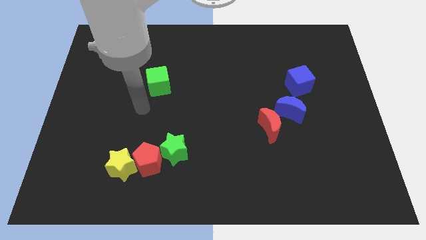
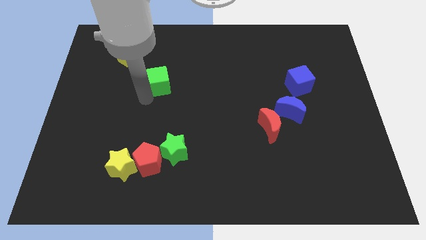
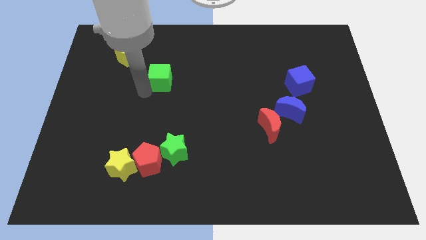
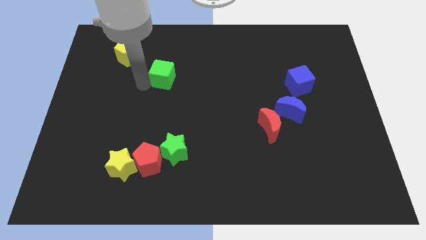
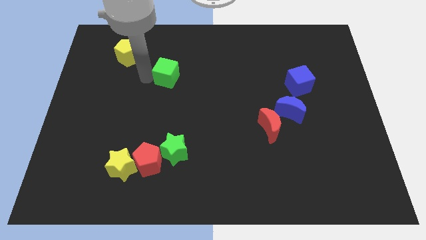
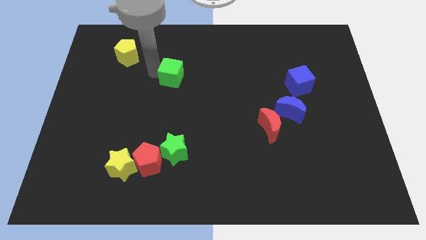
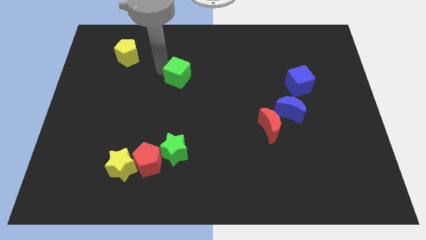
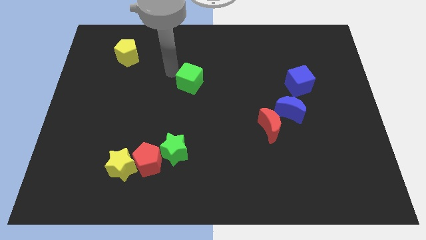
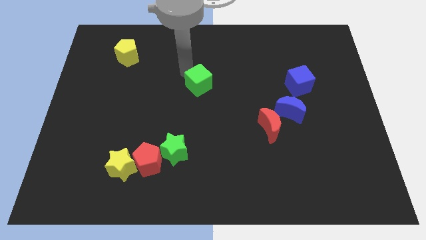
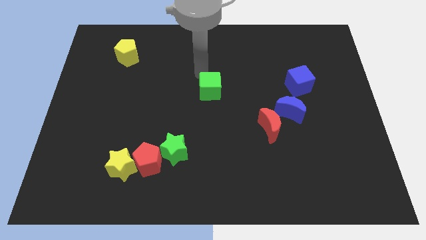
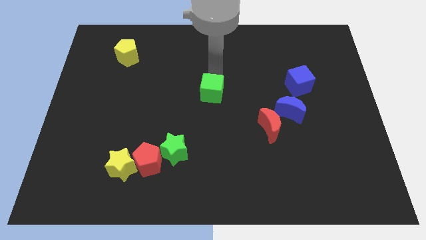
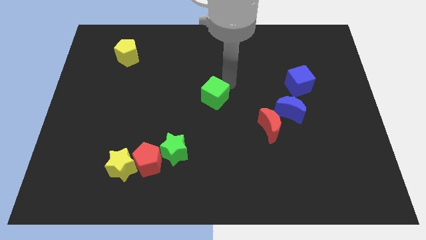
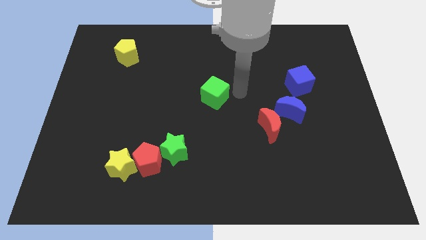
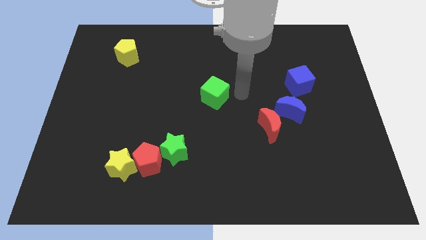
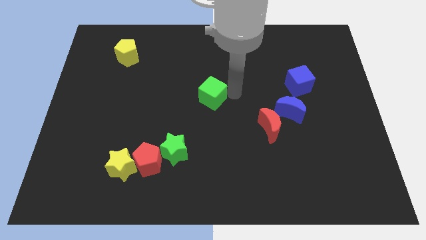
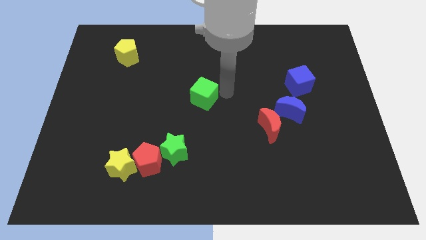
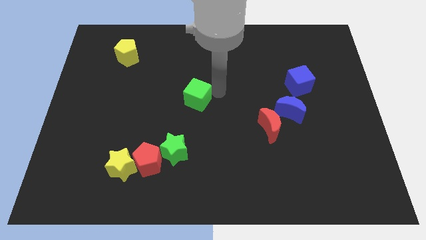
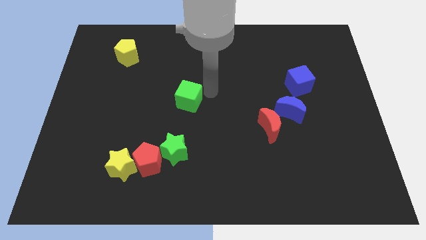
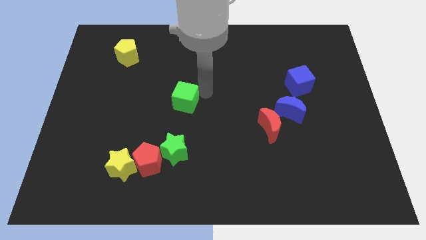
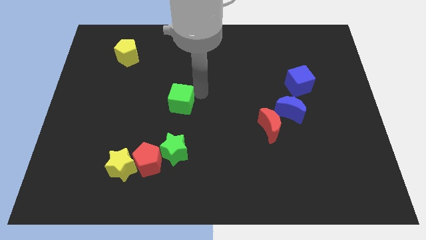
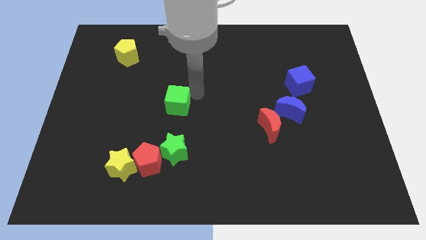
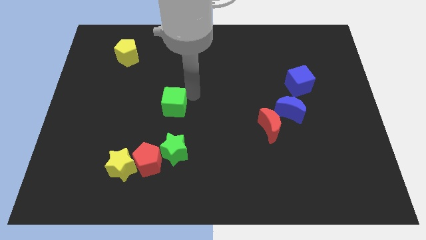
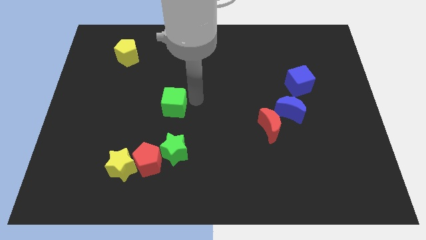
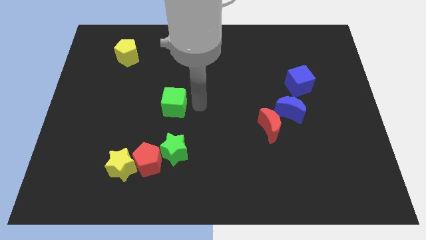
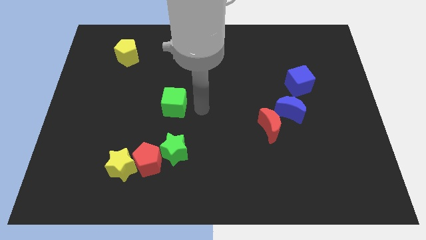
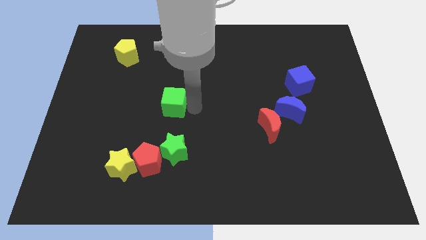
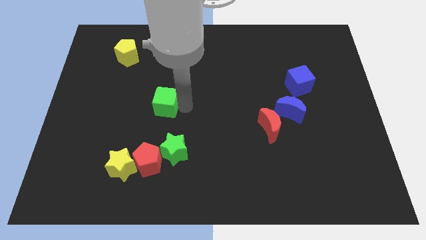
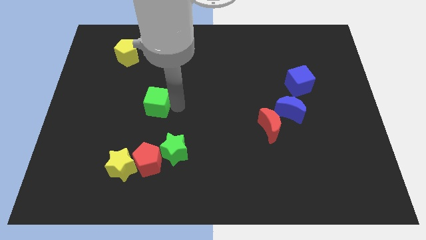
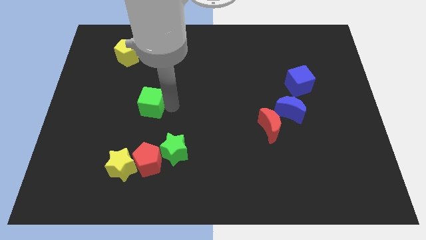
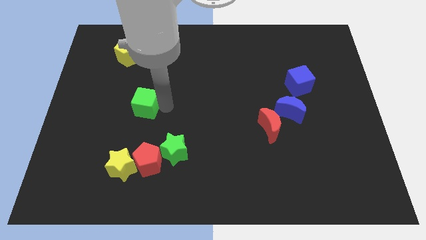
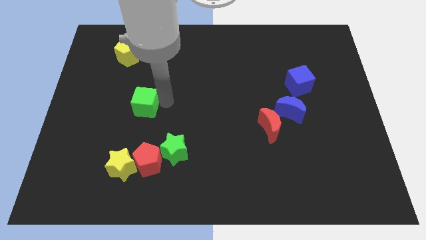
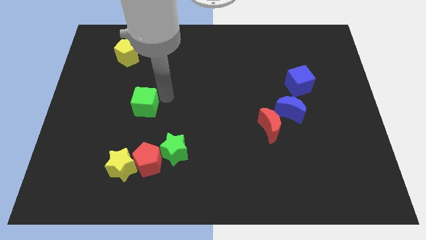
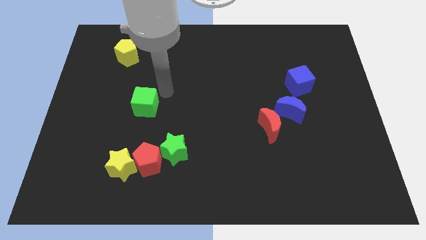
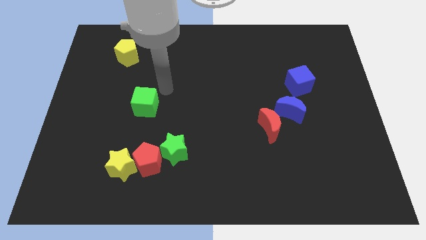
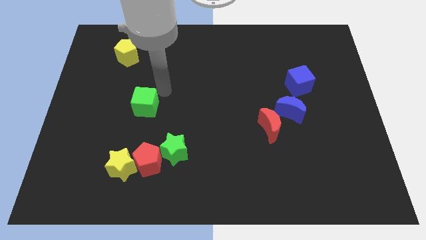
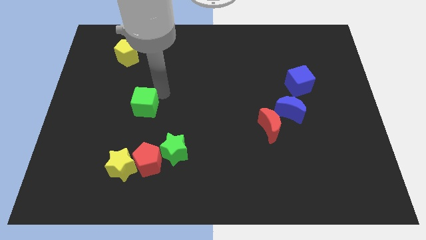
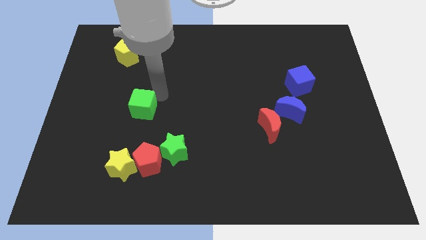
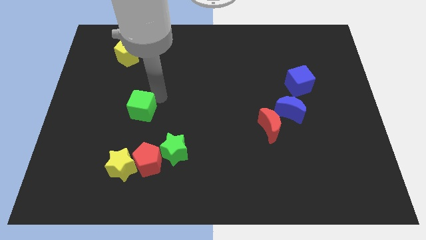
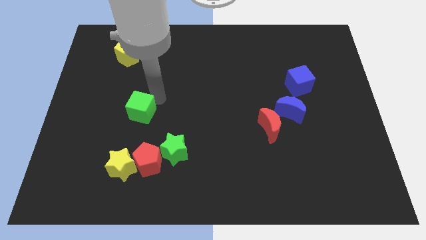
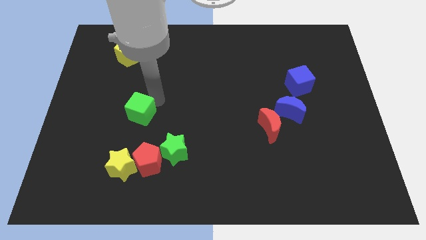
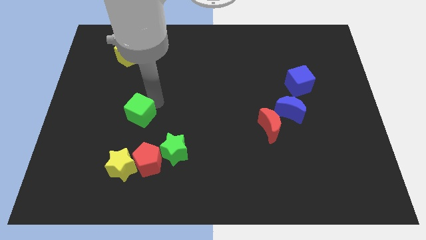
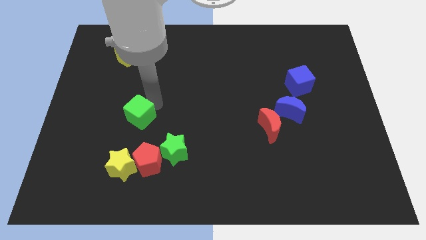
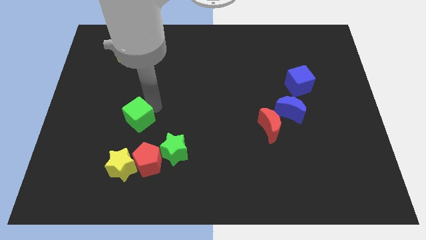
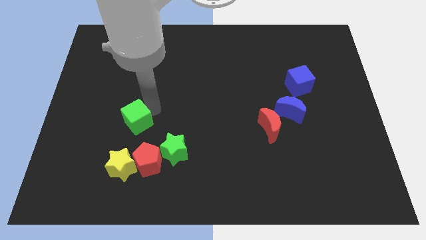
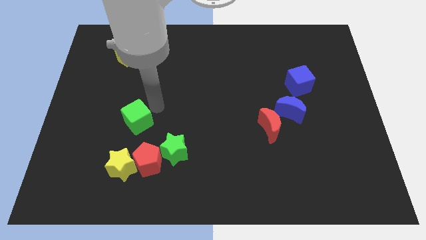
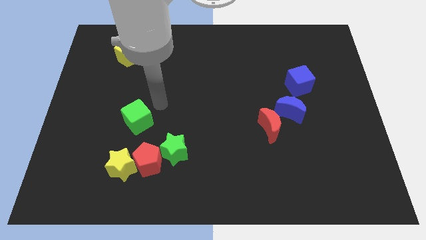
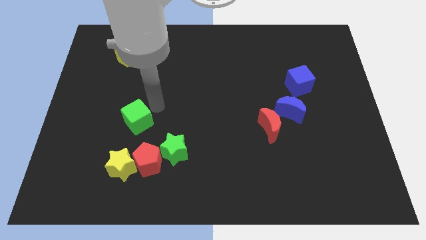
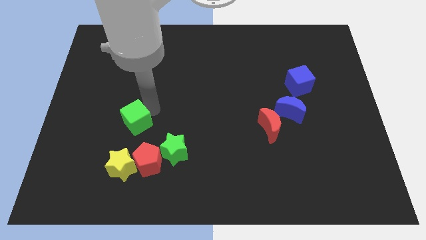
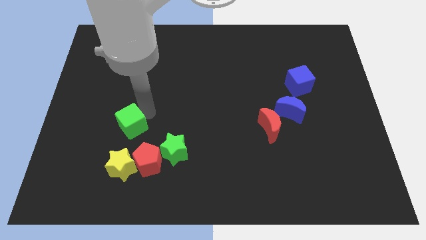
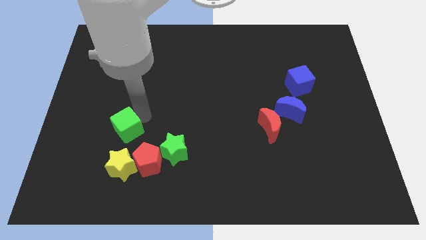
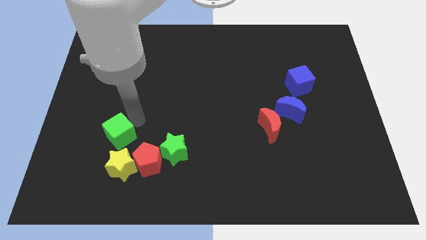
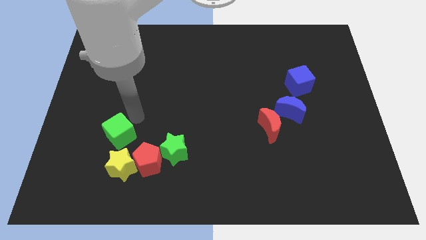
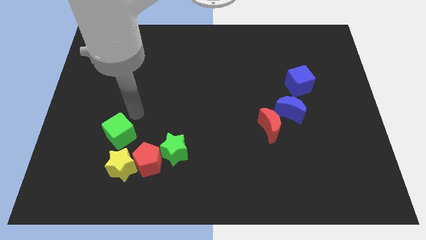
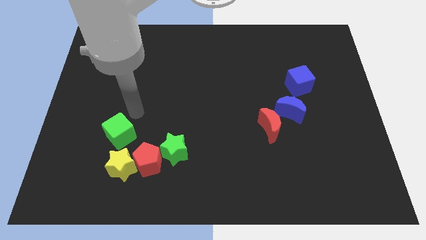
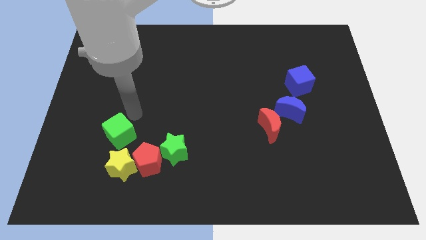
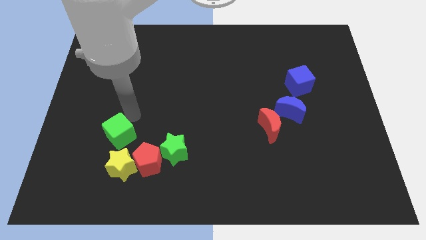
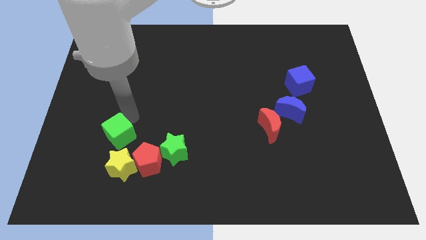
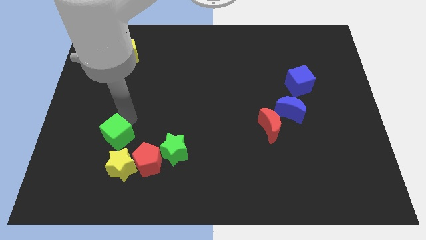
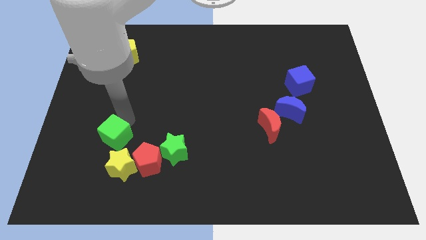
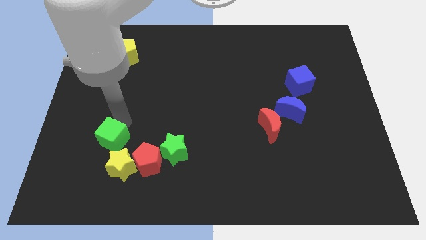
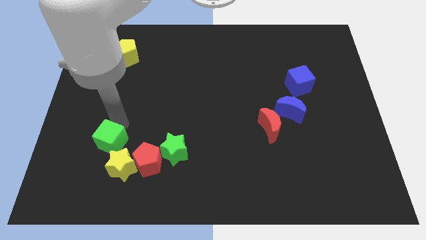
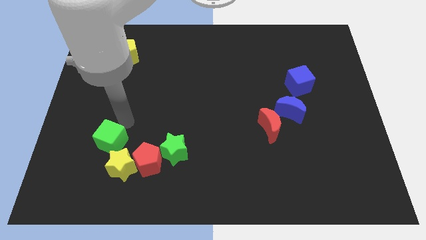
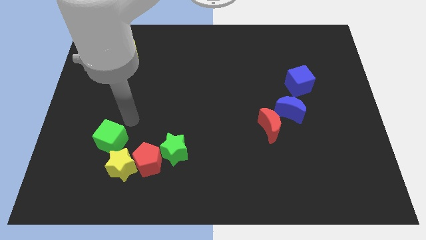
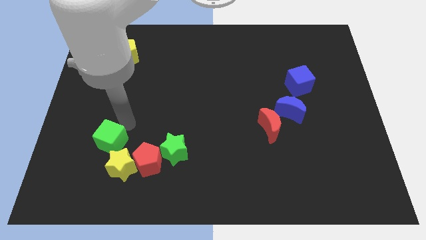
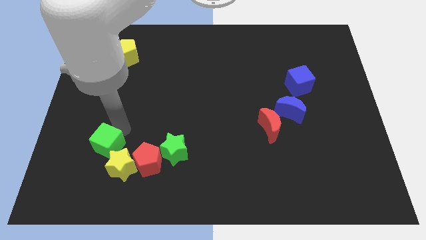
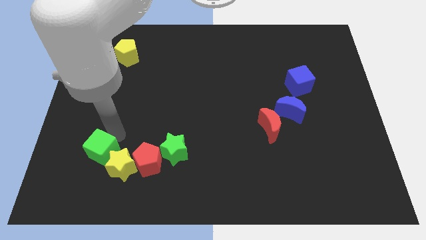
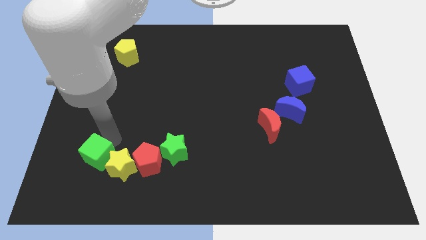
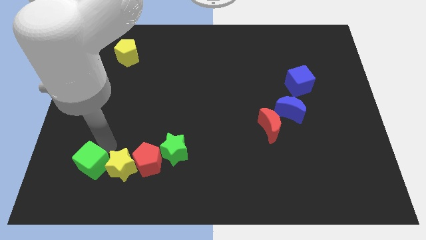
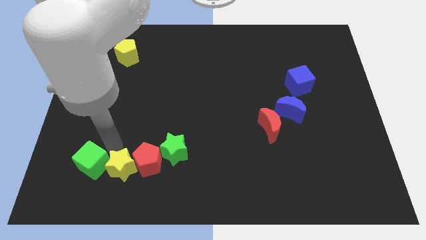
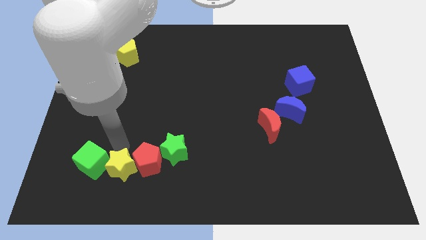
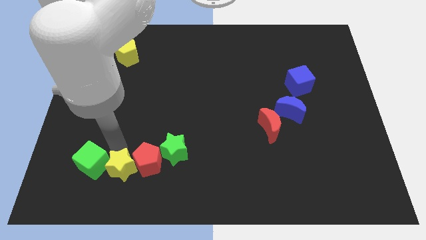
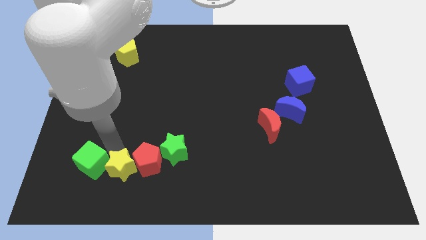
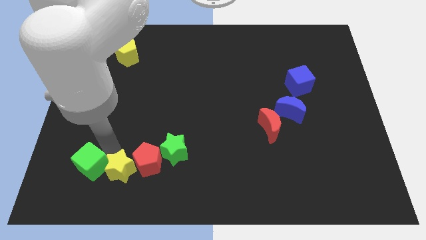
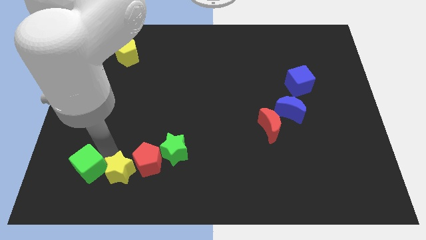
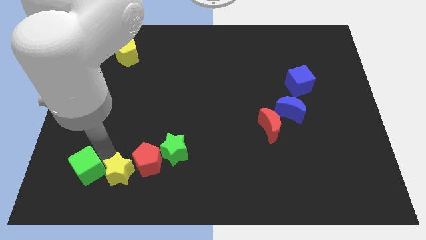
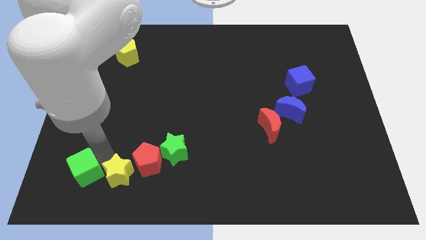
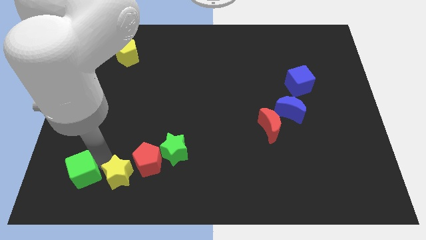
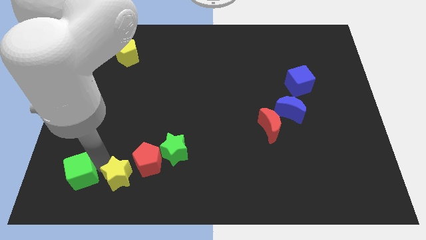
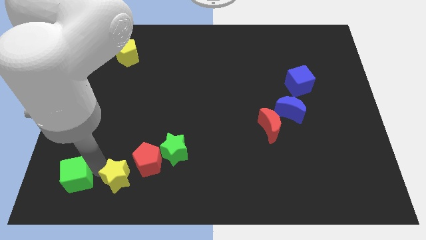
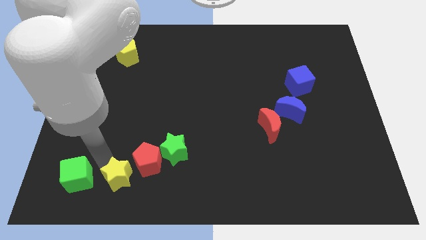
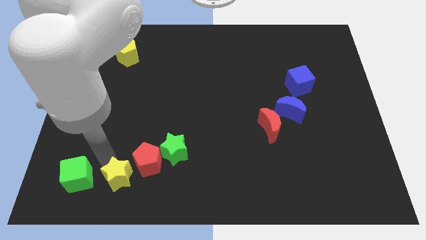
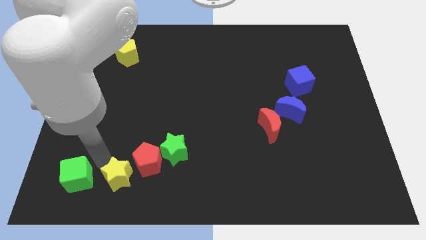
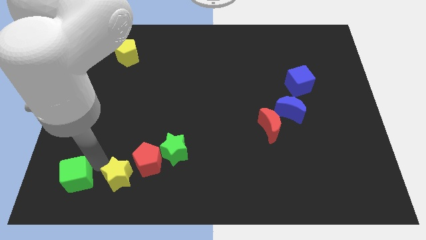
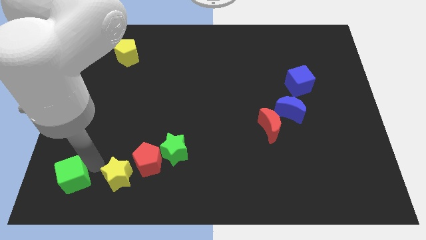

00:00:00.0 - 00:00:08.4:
move the green cube to the bottom left
